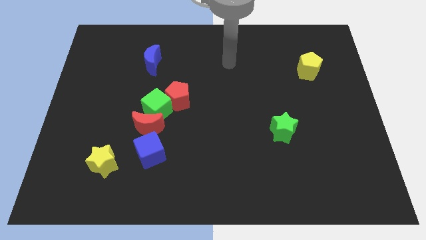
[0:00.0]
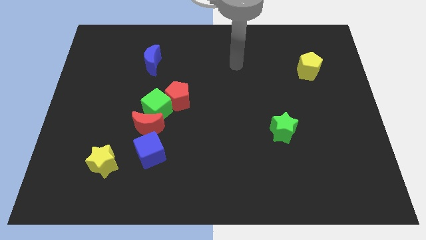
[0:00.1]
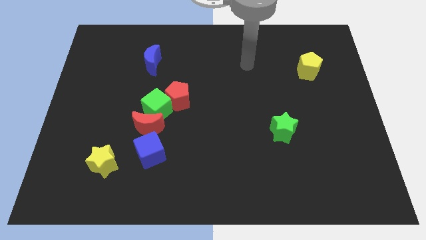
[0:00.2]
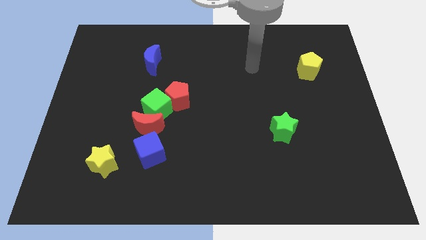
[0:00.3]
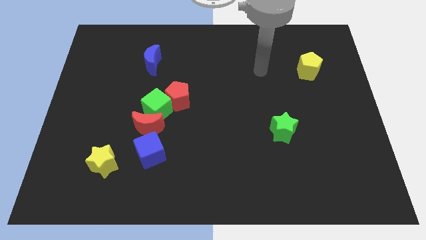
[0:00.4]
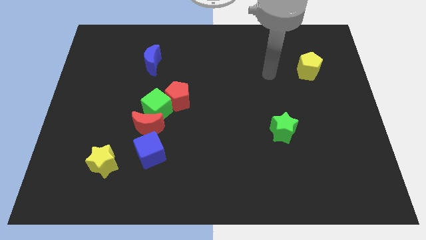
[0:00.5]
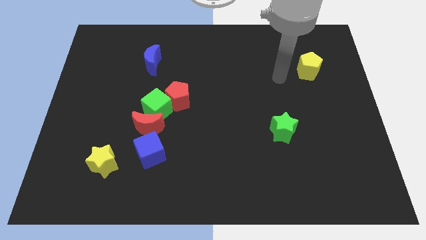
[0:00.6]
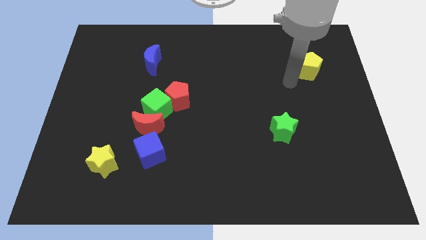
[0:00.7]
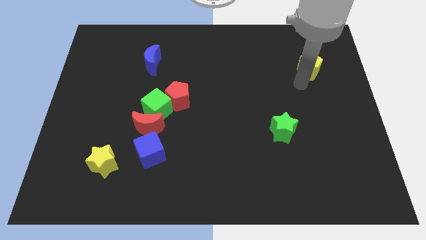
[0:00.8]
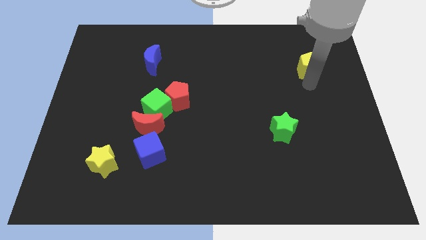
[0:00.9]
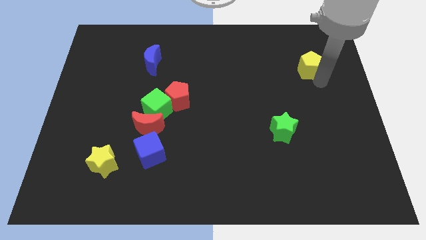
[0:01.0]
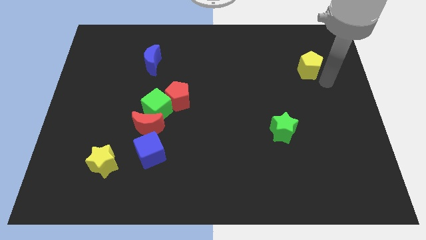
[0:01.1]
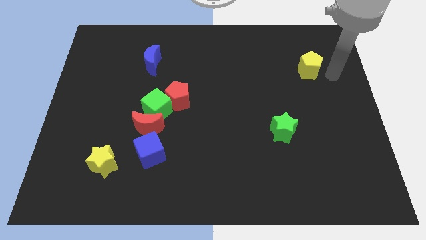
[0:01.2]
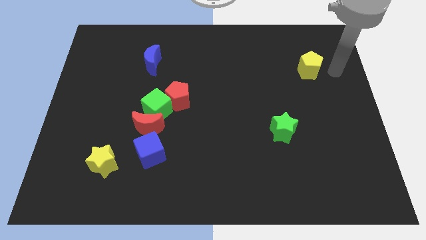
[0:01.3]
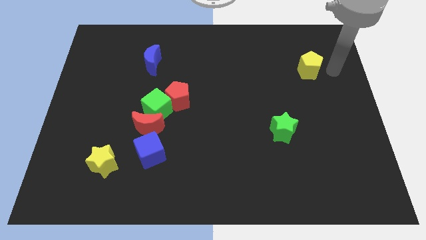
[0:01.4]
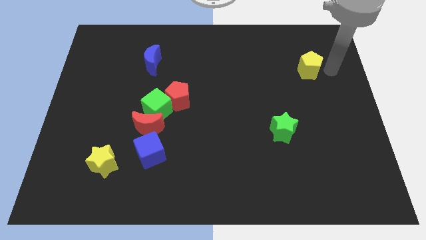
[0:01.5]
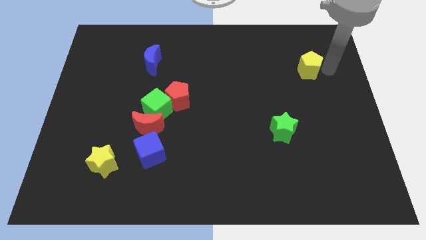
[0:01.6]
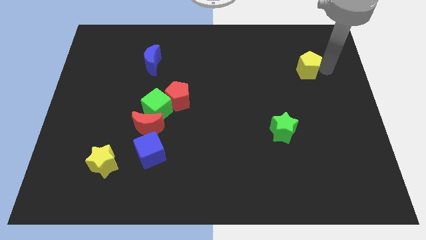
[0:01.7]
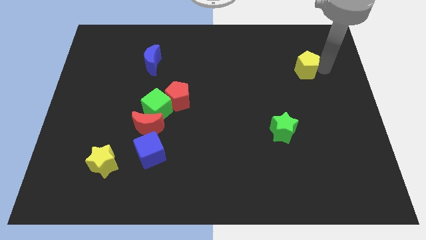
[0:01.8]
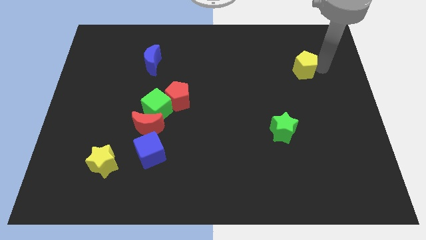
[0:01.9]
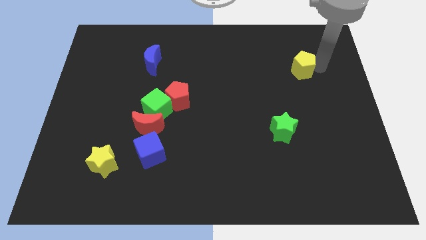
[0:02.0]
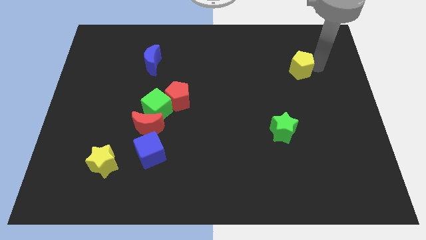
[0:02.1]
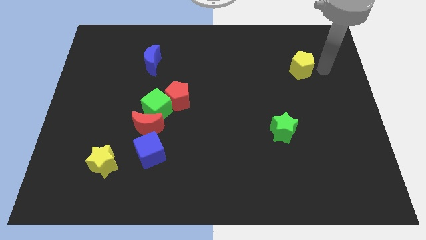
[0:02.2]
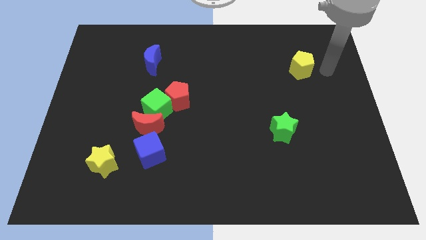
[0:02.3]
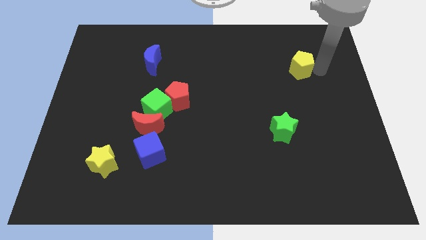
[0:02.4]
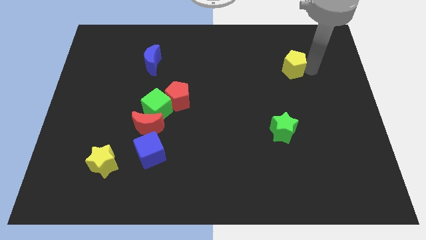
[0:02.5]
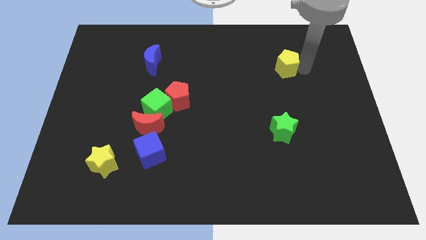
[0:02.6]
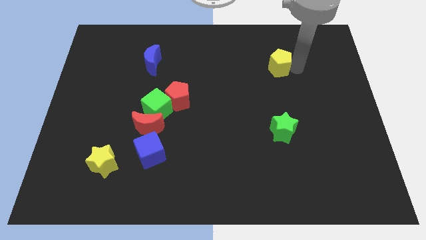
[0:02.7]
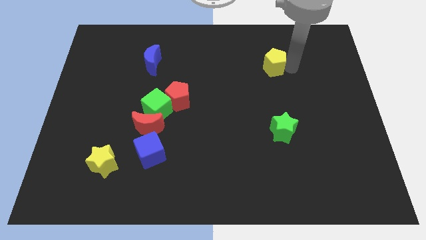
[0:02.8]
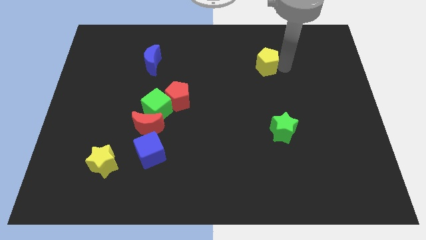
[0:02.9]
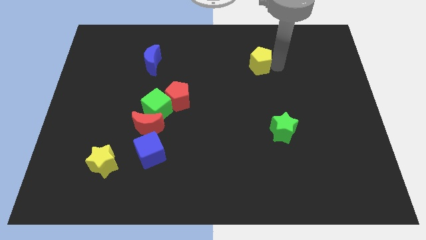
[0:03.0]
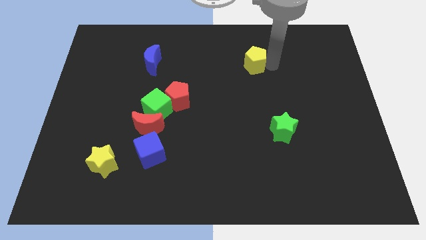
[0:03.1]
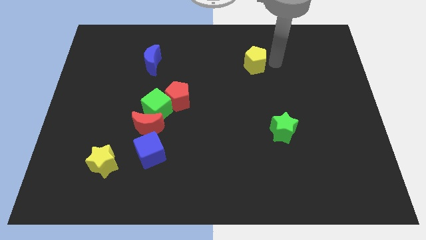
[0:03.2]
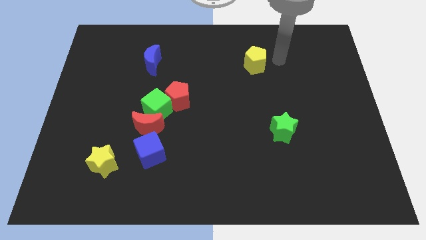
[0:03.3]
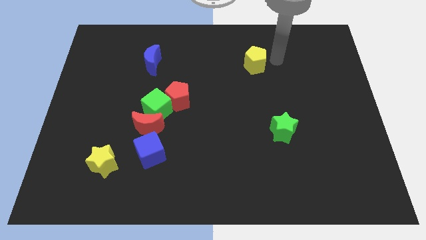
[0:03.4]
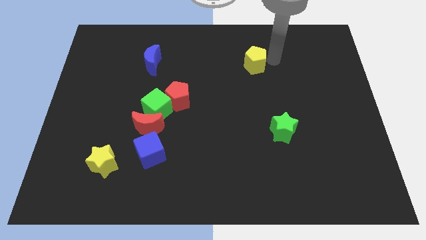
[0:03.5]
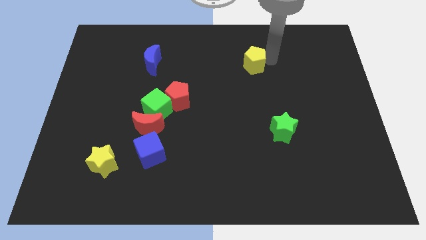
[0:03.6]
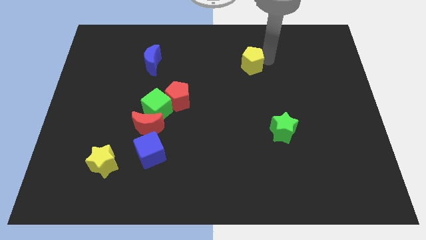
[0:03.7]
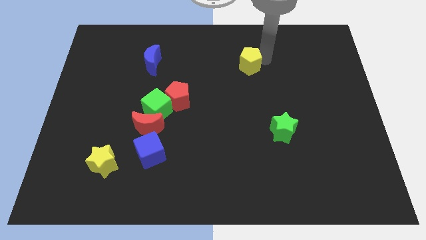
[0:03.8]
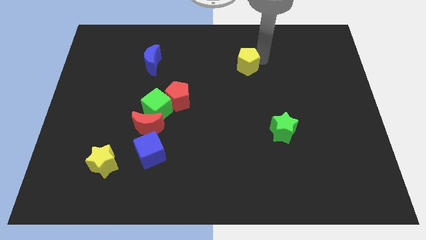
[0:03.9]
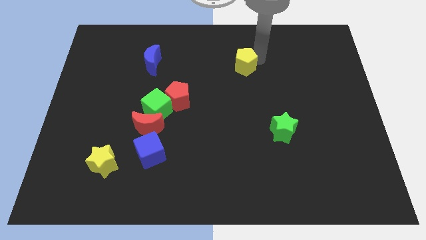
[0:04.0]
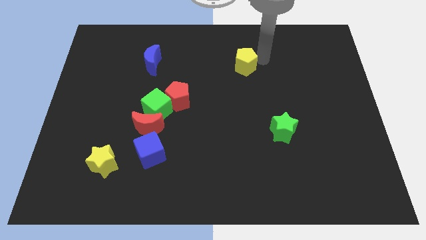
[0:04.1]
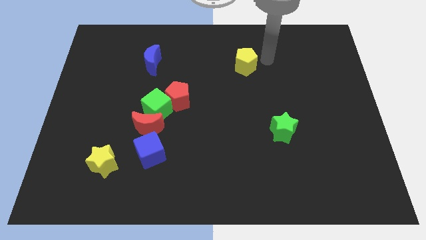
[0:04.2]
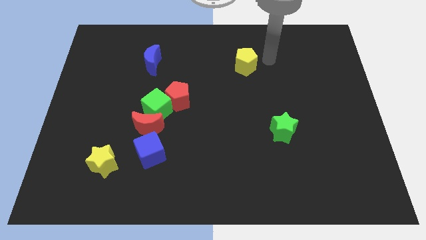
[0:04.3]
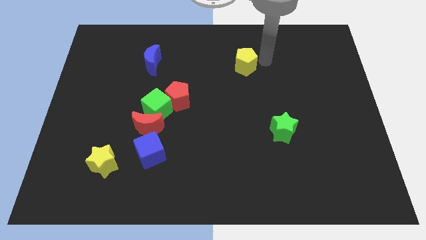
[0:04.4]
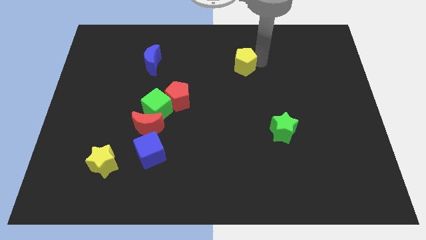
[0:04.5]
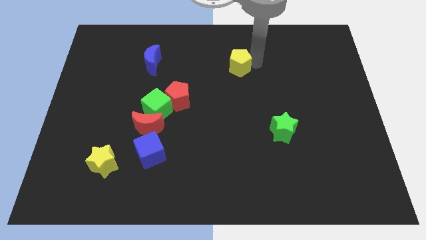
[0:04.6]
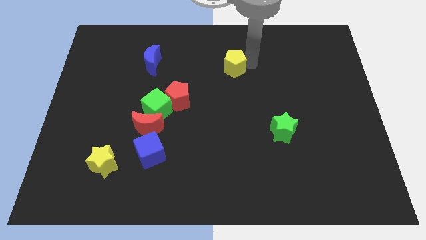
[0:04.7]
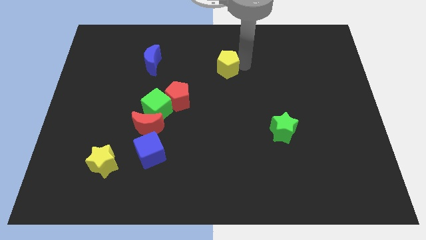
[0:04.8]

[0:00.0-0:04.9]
move the yellow pentagon left

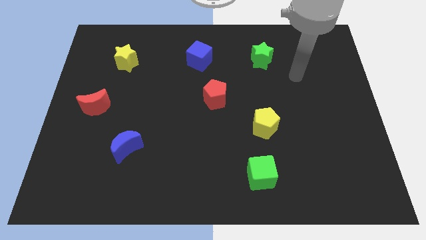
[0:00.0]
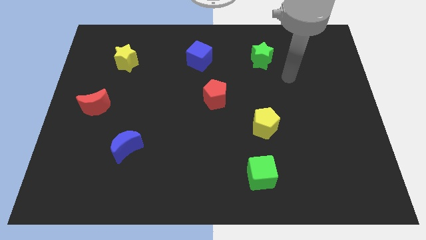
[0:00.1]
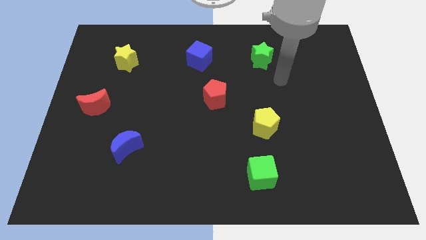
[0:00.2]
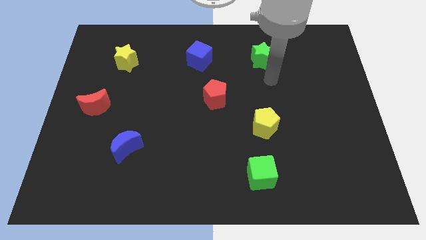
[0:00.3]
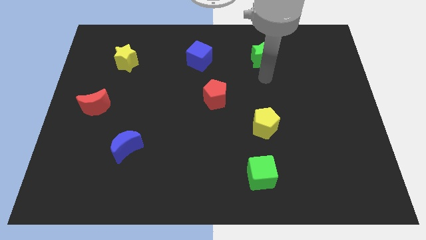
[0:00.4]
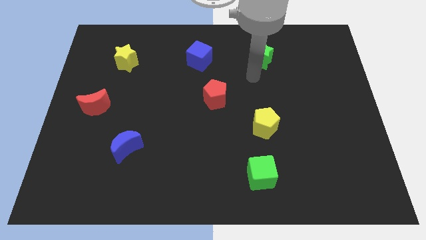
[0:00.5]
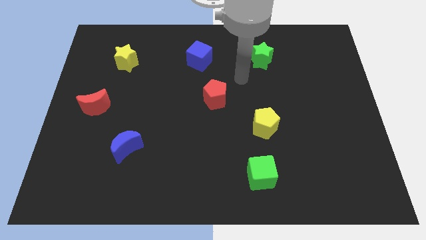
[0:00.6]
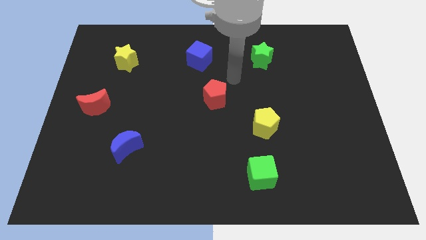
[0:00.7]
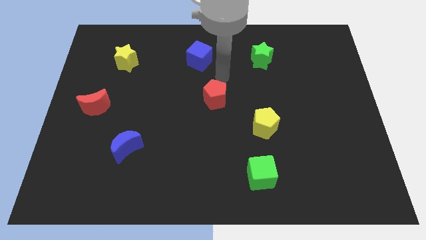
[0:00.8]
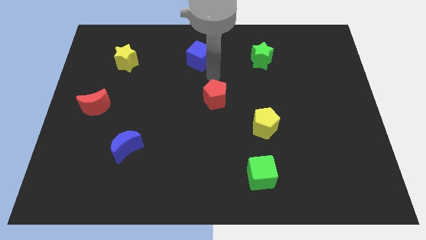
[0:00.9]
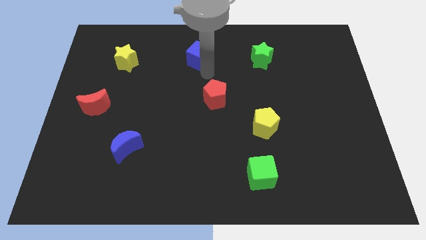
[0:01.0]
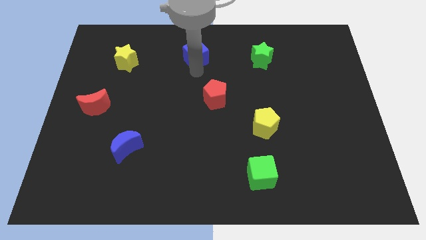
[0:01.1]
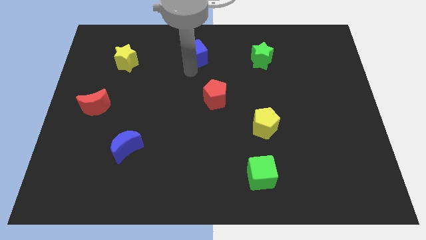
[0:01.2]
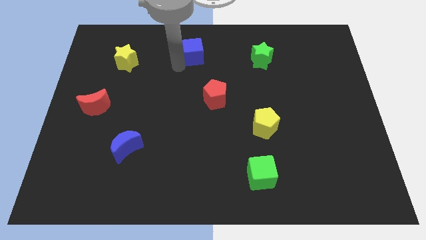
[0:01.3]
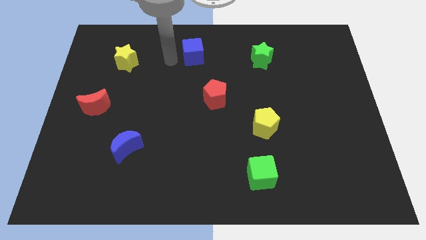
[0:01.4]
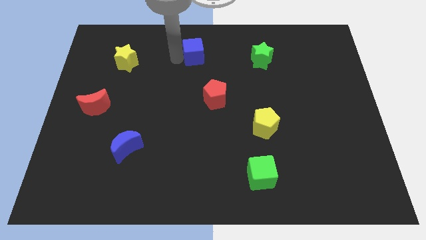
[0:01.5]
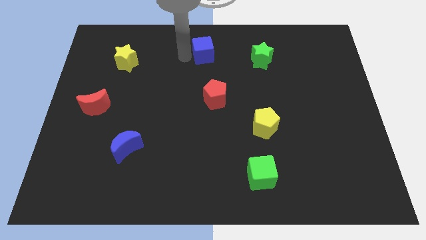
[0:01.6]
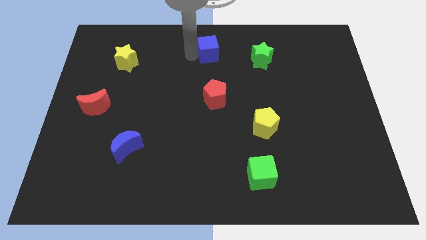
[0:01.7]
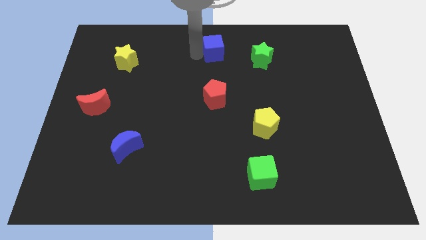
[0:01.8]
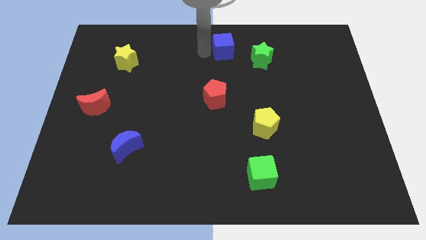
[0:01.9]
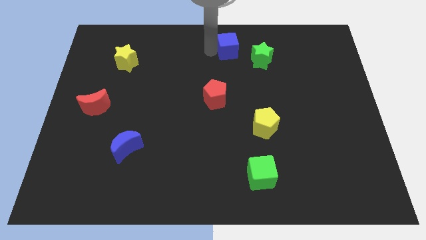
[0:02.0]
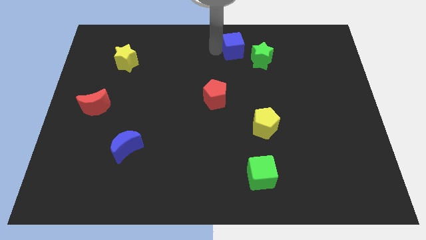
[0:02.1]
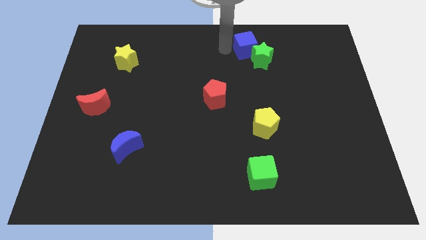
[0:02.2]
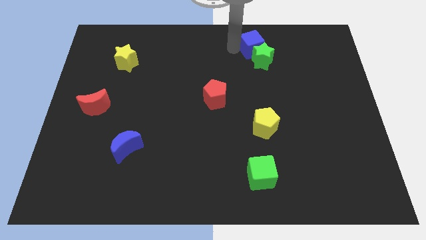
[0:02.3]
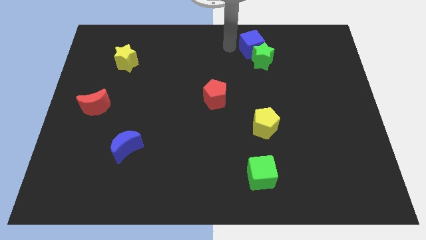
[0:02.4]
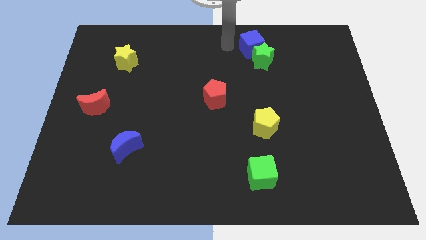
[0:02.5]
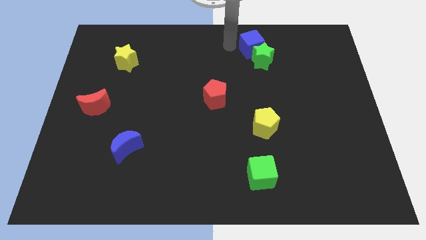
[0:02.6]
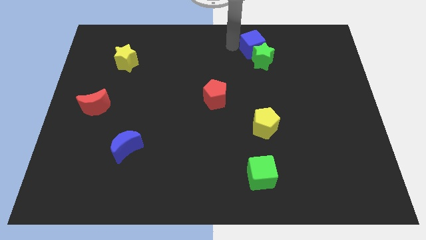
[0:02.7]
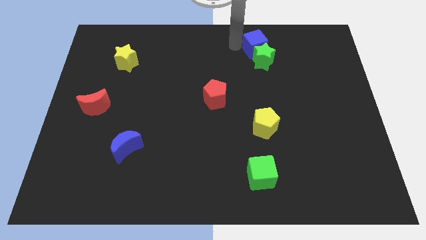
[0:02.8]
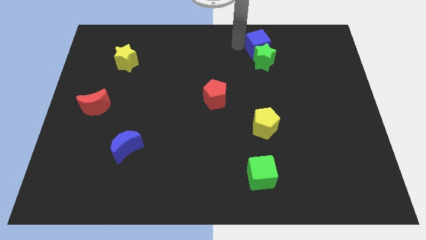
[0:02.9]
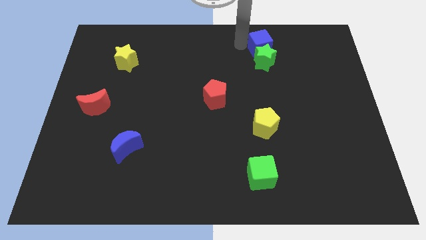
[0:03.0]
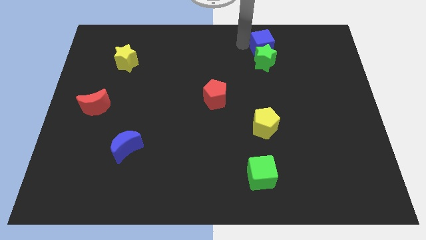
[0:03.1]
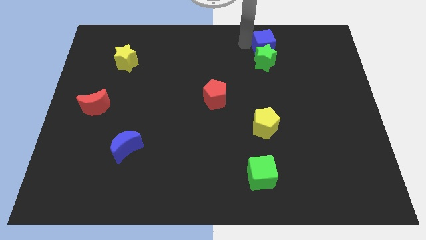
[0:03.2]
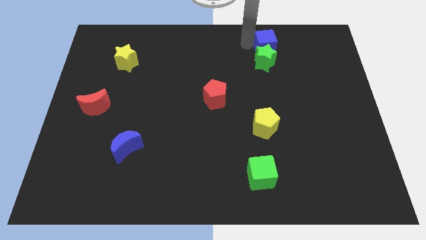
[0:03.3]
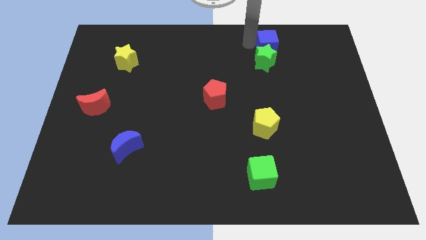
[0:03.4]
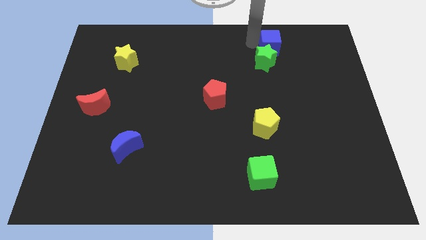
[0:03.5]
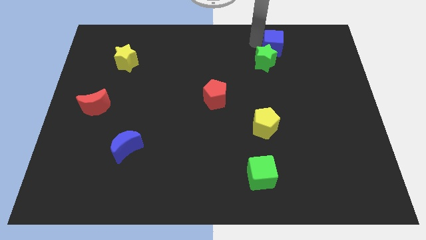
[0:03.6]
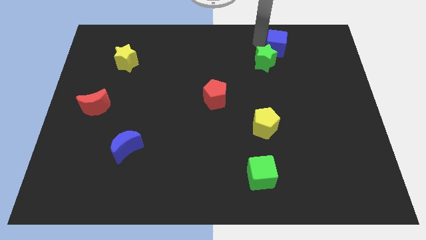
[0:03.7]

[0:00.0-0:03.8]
push the blue cube right
